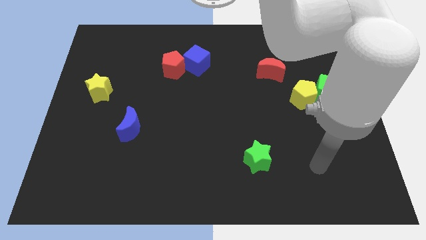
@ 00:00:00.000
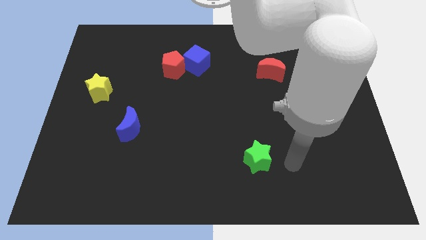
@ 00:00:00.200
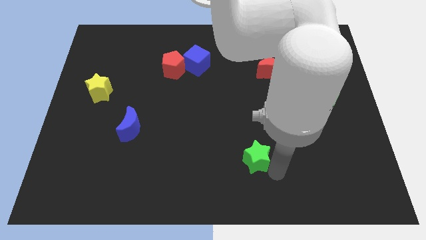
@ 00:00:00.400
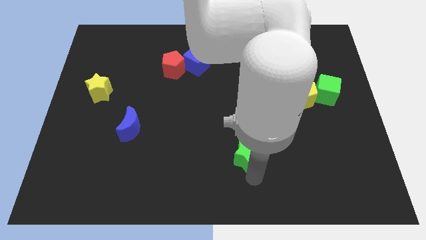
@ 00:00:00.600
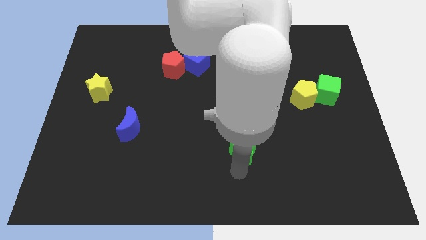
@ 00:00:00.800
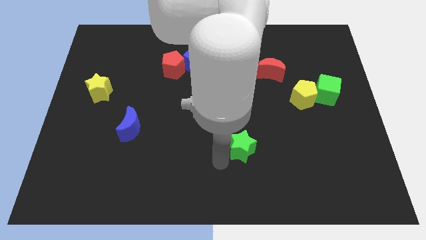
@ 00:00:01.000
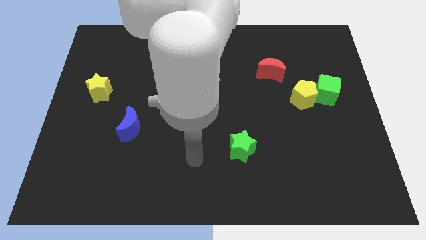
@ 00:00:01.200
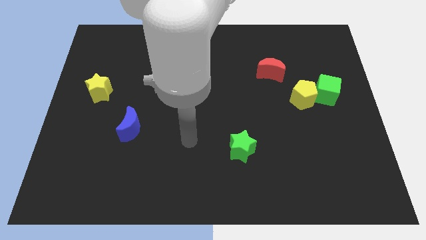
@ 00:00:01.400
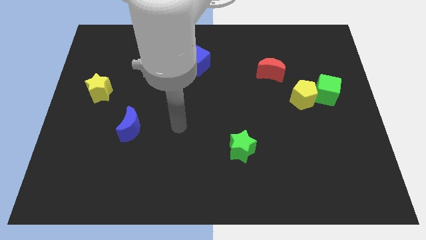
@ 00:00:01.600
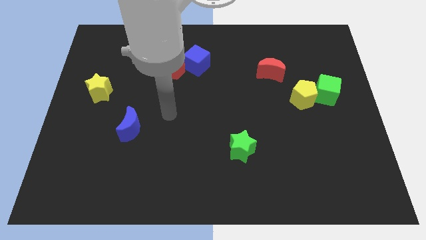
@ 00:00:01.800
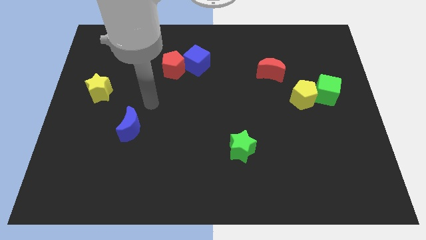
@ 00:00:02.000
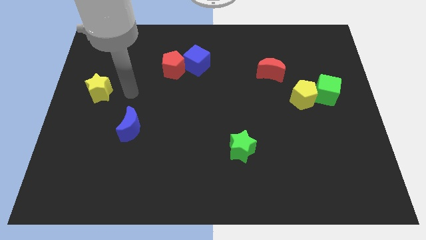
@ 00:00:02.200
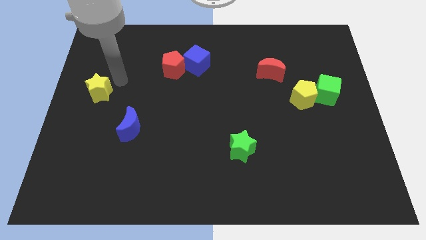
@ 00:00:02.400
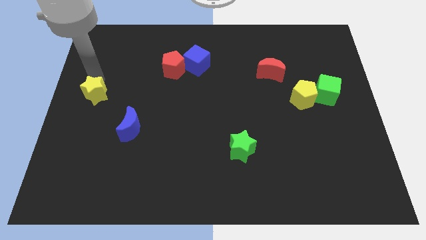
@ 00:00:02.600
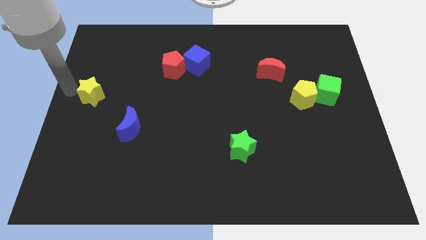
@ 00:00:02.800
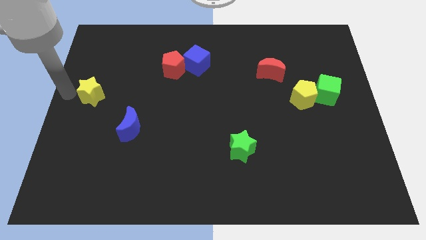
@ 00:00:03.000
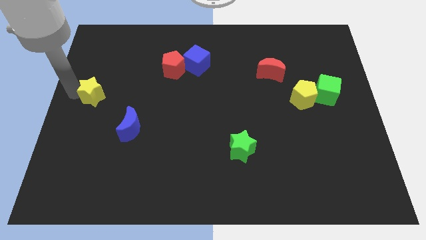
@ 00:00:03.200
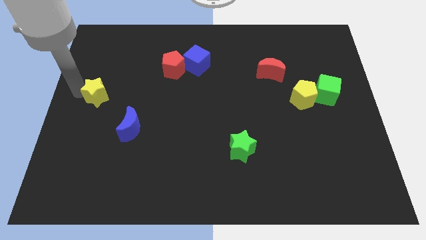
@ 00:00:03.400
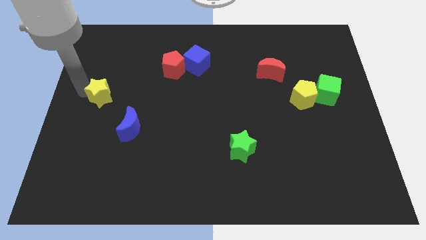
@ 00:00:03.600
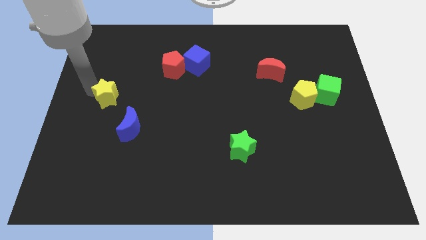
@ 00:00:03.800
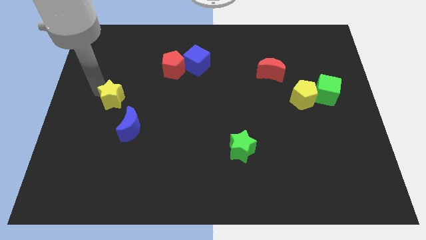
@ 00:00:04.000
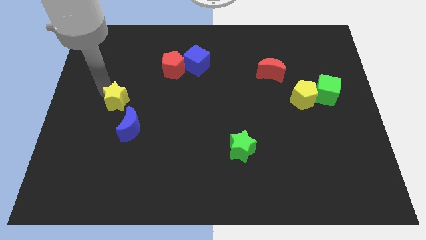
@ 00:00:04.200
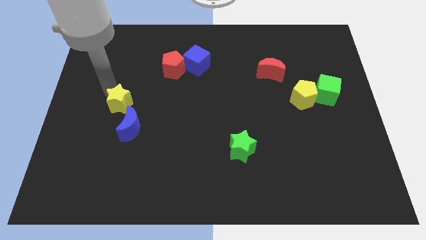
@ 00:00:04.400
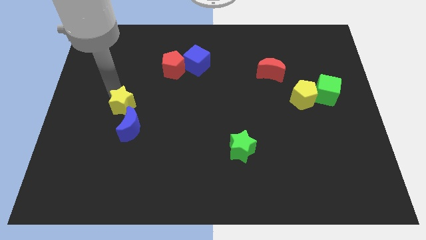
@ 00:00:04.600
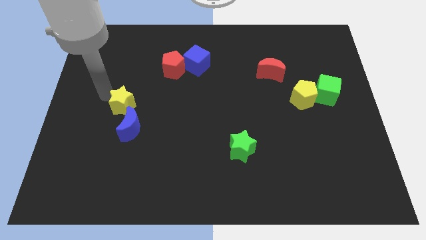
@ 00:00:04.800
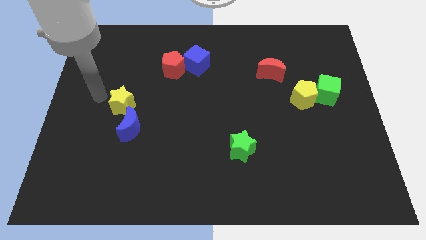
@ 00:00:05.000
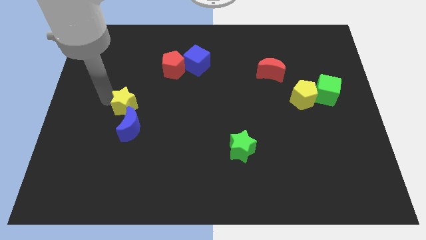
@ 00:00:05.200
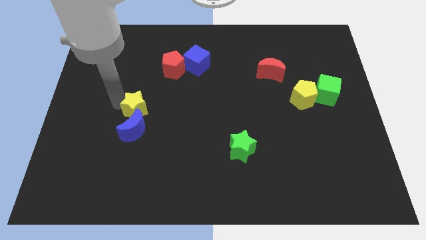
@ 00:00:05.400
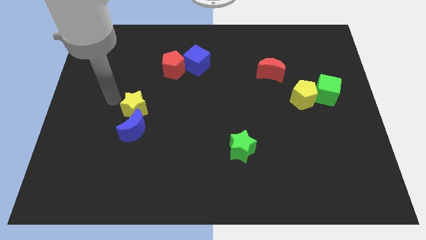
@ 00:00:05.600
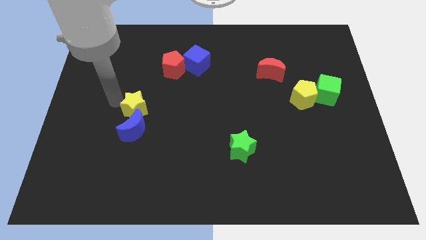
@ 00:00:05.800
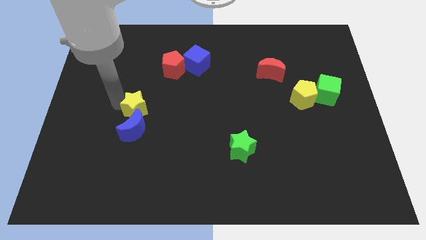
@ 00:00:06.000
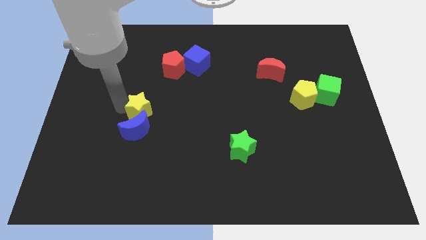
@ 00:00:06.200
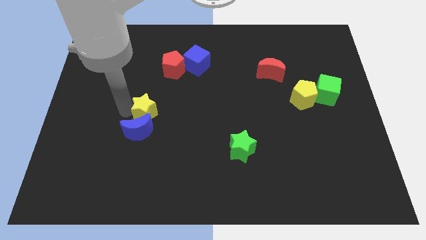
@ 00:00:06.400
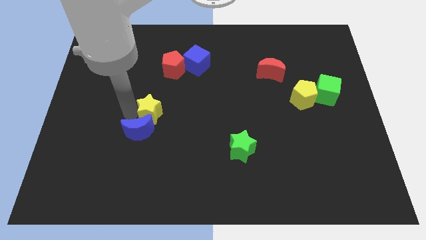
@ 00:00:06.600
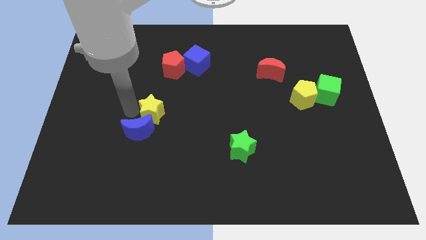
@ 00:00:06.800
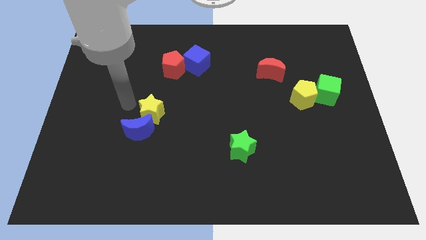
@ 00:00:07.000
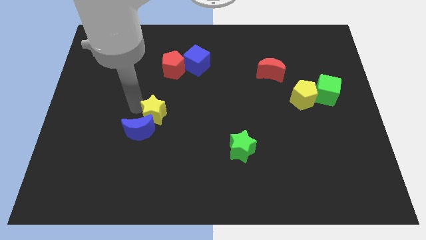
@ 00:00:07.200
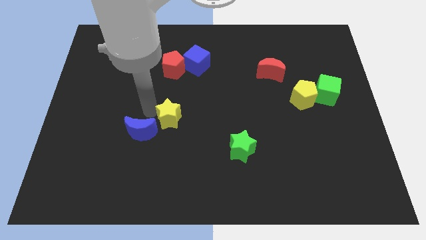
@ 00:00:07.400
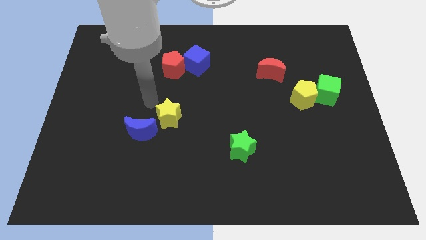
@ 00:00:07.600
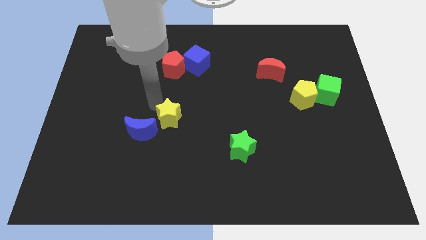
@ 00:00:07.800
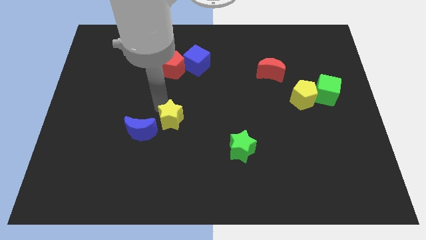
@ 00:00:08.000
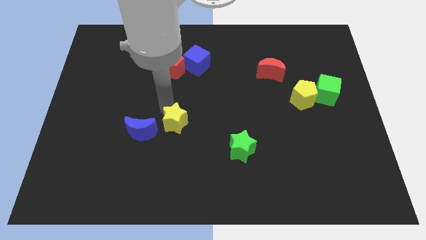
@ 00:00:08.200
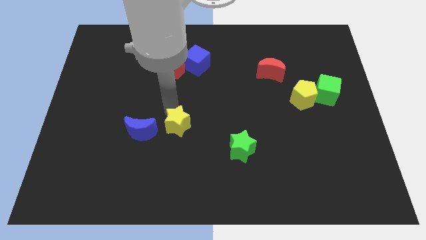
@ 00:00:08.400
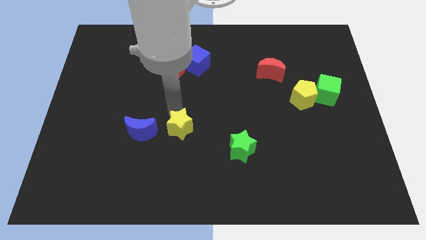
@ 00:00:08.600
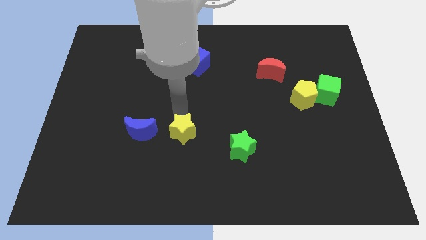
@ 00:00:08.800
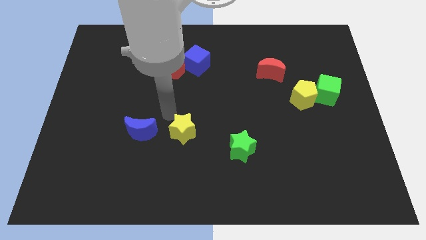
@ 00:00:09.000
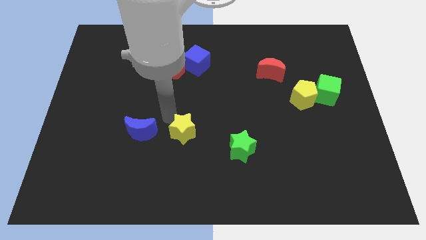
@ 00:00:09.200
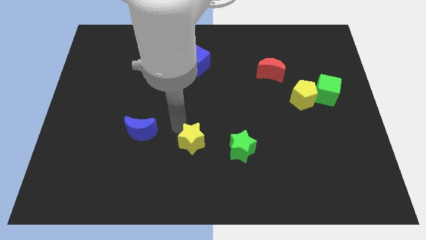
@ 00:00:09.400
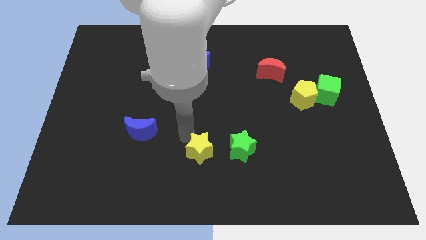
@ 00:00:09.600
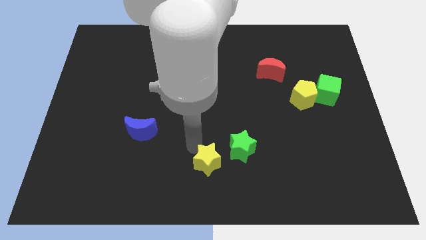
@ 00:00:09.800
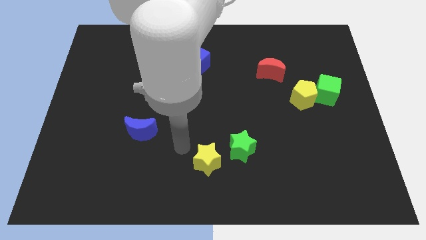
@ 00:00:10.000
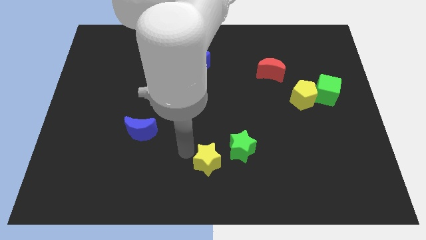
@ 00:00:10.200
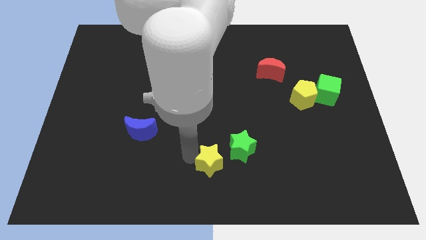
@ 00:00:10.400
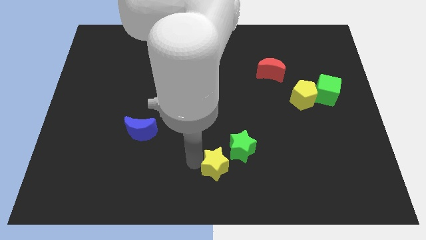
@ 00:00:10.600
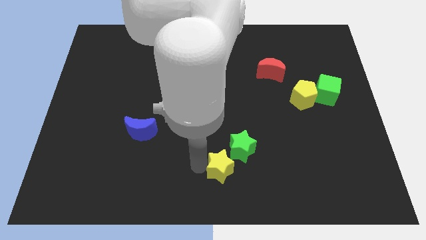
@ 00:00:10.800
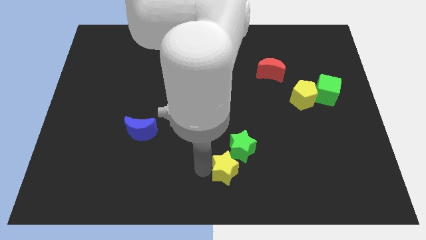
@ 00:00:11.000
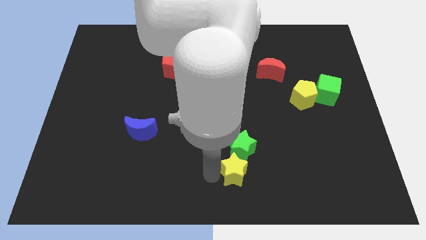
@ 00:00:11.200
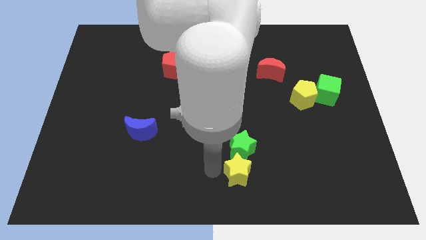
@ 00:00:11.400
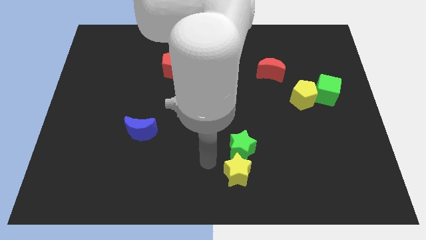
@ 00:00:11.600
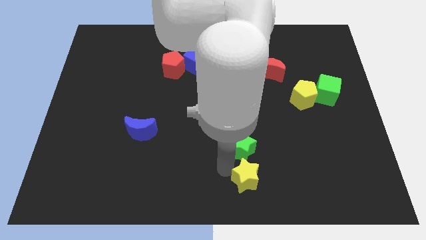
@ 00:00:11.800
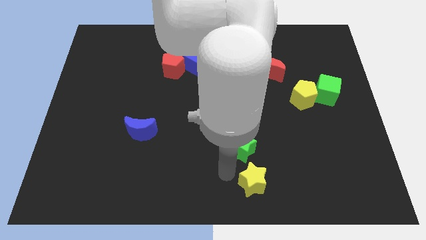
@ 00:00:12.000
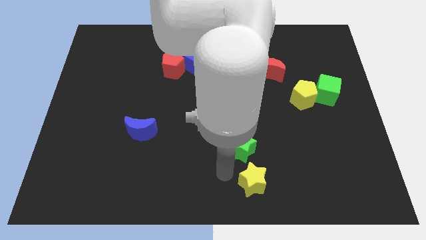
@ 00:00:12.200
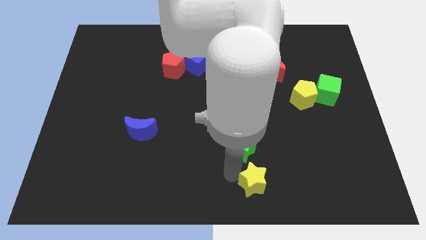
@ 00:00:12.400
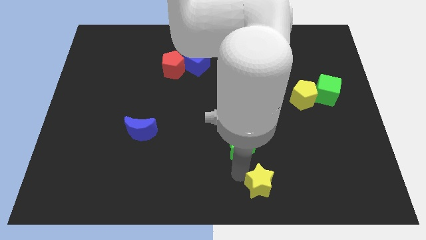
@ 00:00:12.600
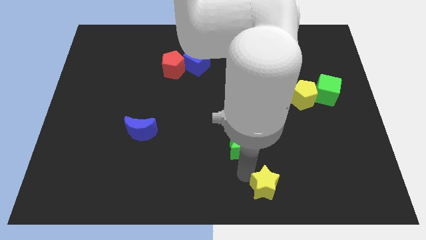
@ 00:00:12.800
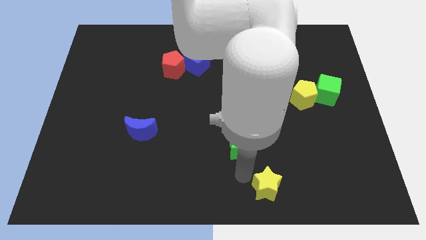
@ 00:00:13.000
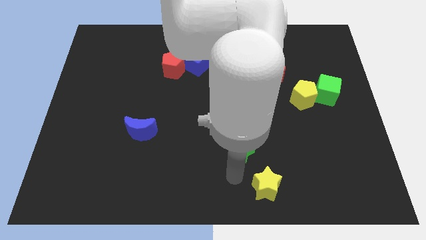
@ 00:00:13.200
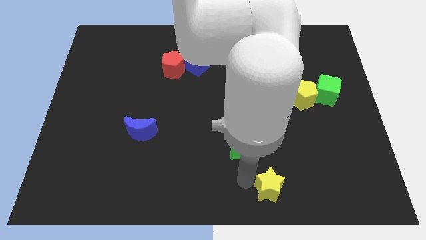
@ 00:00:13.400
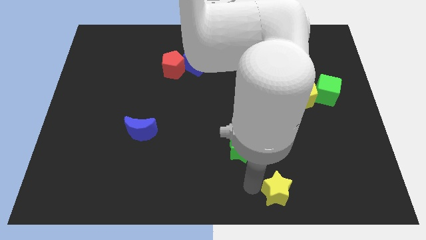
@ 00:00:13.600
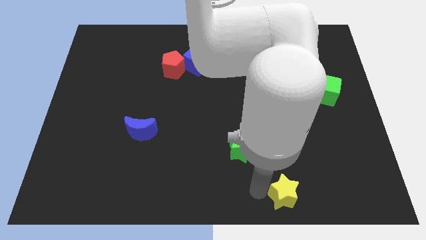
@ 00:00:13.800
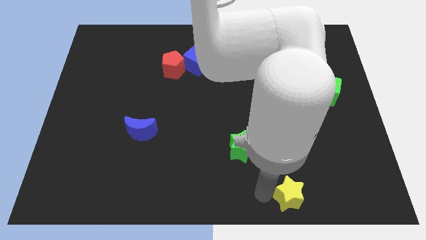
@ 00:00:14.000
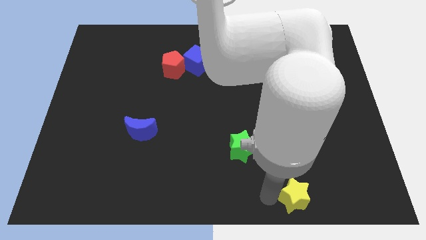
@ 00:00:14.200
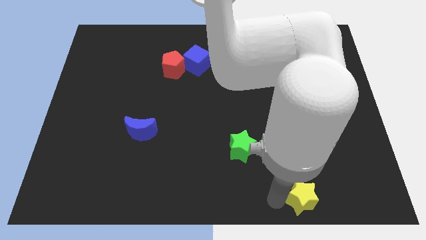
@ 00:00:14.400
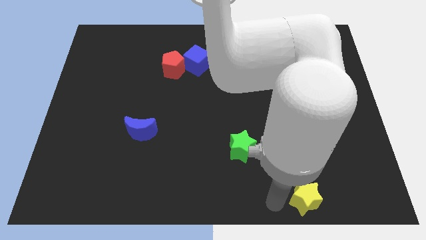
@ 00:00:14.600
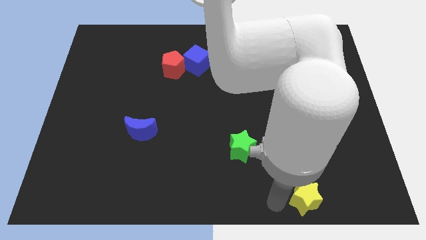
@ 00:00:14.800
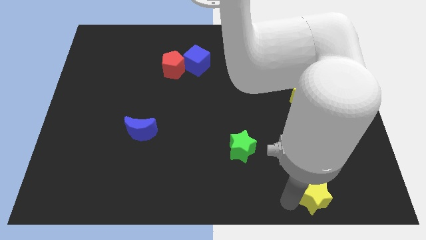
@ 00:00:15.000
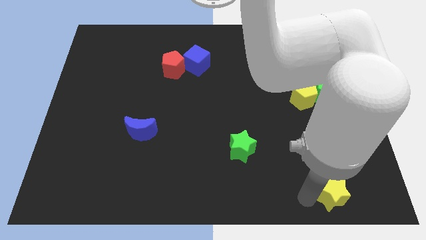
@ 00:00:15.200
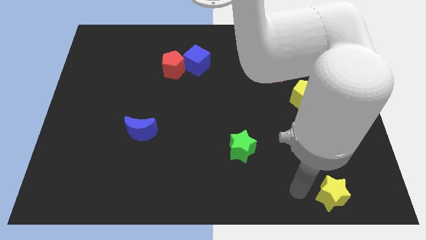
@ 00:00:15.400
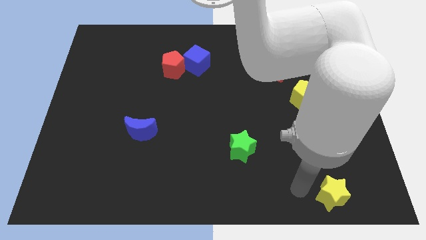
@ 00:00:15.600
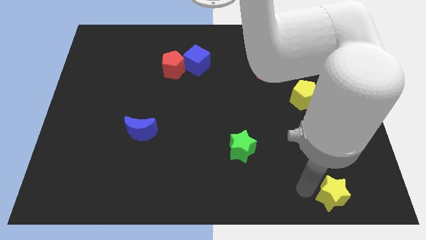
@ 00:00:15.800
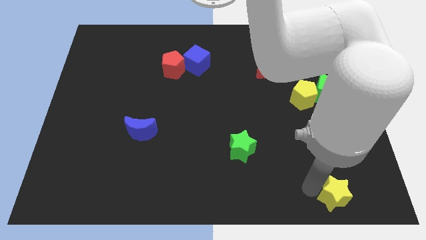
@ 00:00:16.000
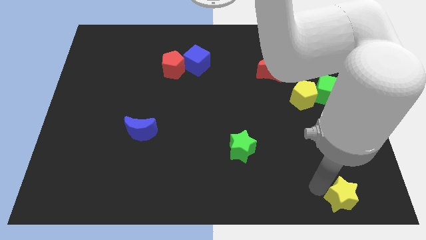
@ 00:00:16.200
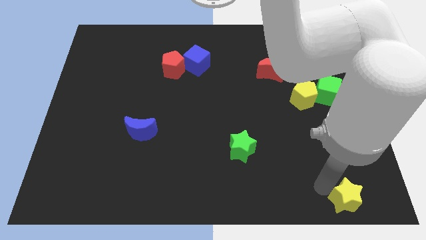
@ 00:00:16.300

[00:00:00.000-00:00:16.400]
put the yellow star to the bottom right
